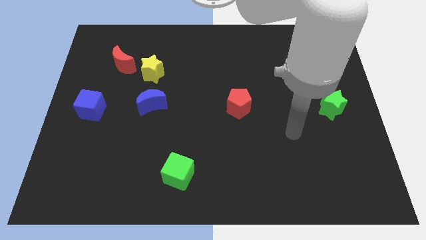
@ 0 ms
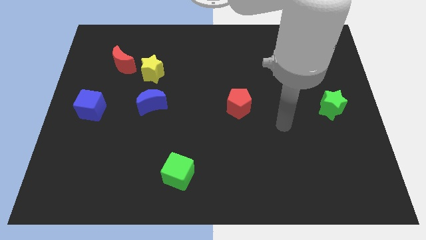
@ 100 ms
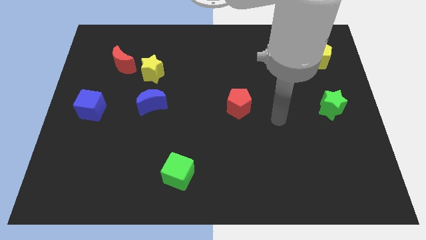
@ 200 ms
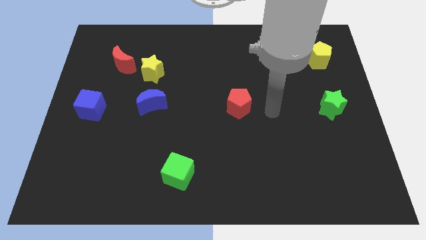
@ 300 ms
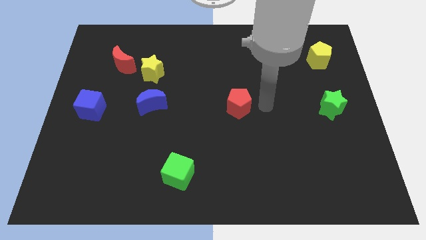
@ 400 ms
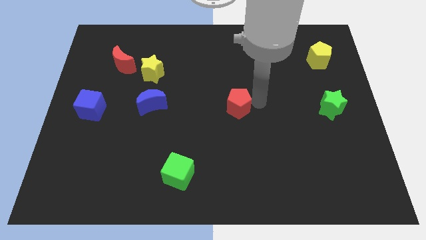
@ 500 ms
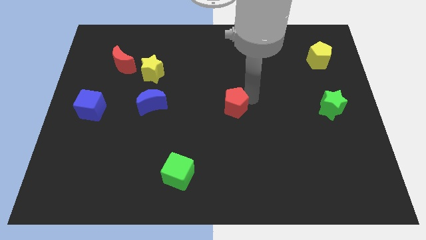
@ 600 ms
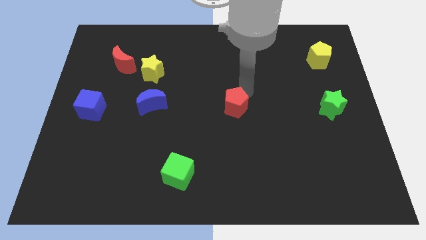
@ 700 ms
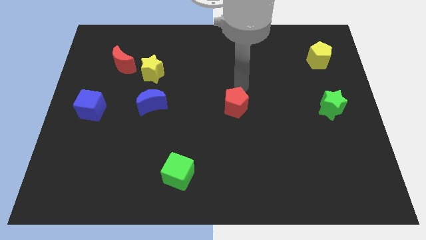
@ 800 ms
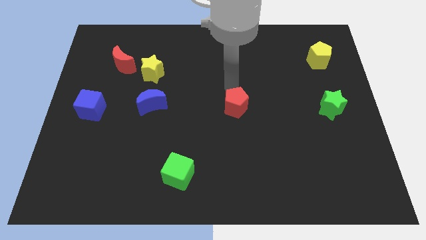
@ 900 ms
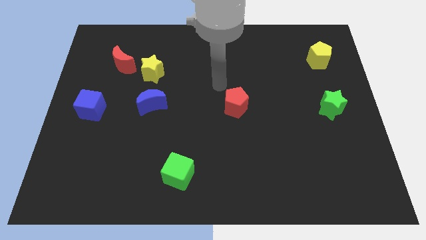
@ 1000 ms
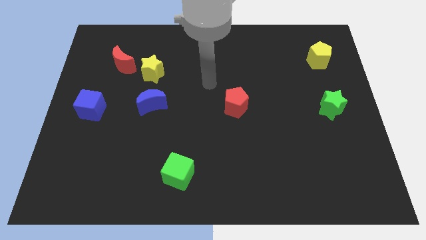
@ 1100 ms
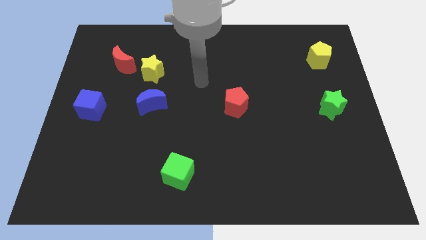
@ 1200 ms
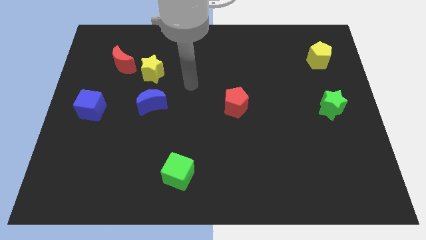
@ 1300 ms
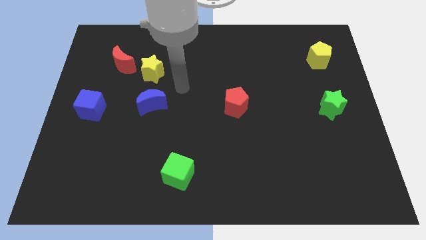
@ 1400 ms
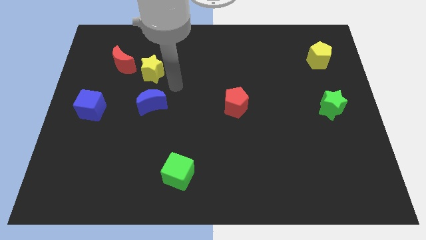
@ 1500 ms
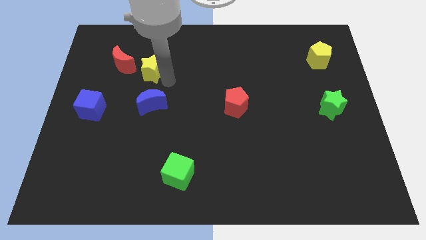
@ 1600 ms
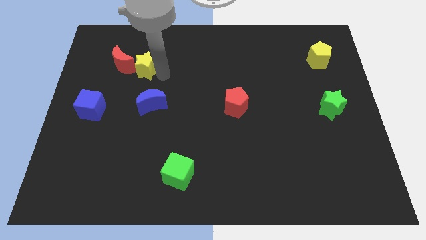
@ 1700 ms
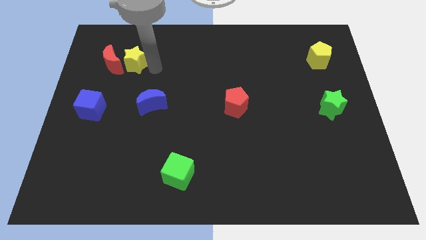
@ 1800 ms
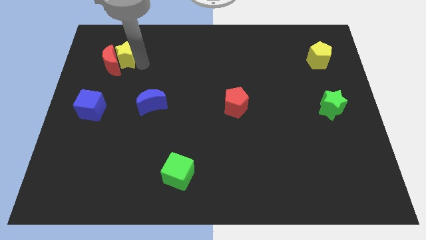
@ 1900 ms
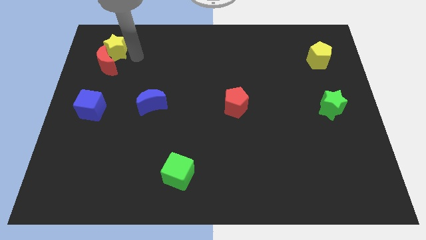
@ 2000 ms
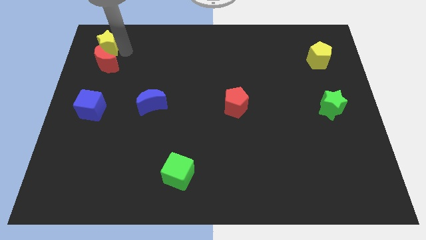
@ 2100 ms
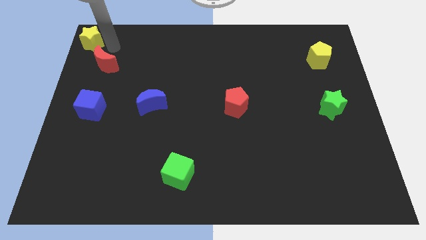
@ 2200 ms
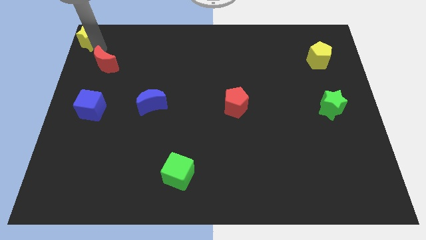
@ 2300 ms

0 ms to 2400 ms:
pull the red moon apart from the yellow star

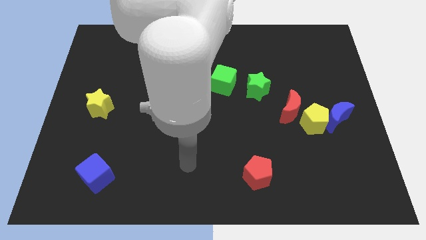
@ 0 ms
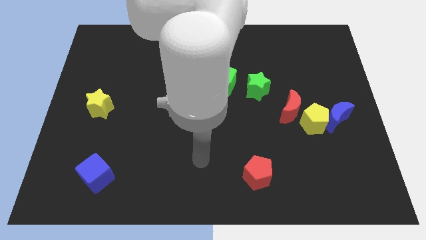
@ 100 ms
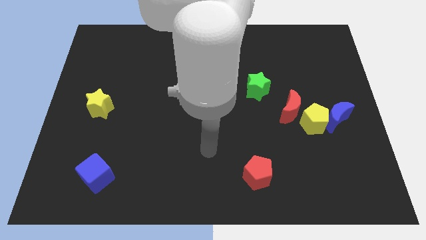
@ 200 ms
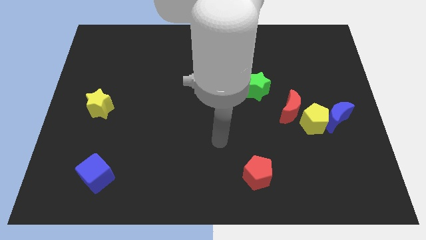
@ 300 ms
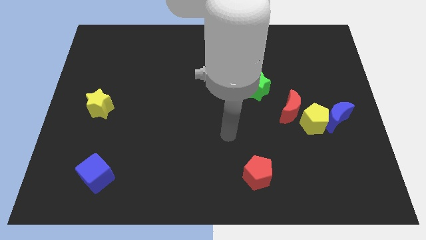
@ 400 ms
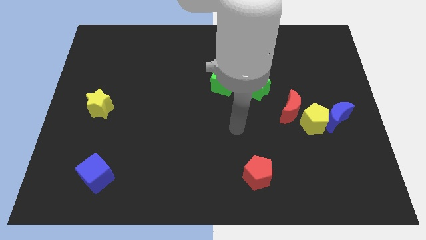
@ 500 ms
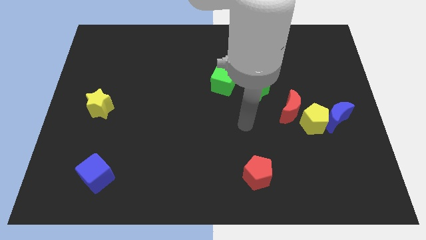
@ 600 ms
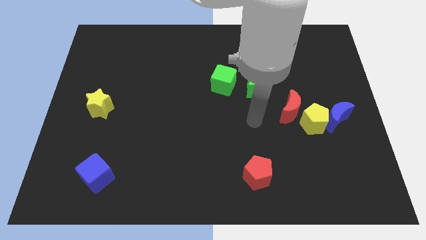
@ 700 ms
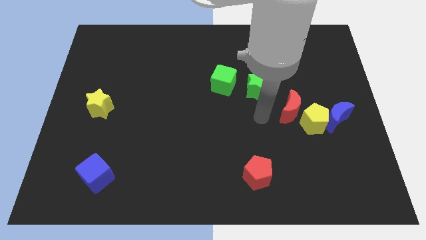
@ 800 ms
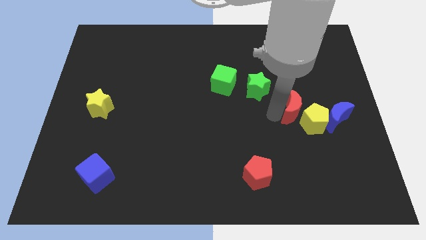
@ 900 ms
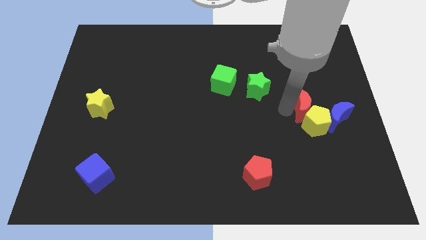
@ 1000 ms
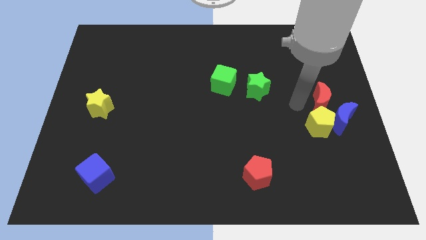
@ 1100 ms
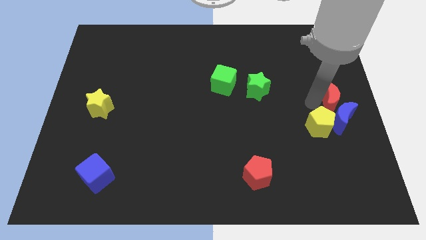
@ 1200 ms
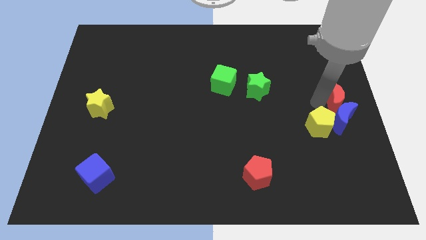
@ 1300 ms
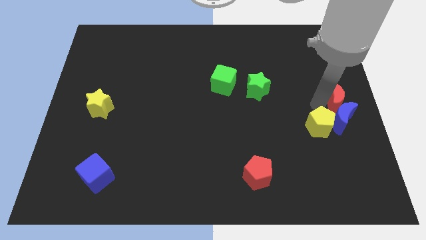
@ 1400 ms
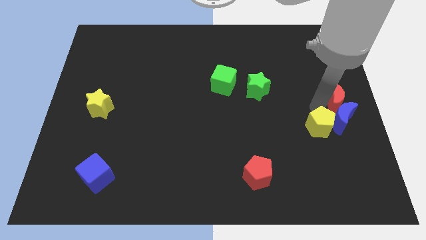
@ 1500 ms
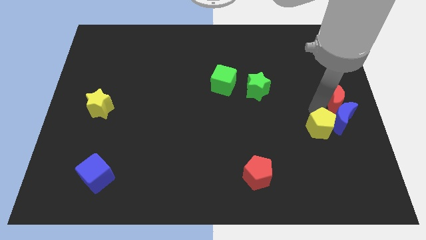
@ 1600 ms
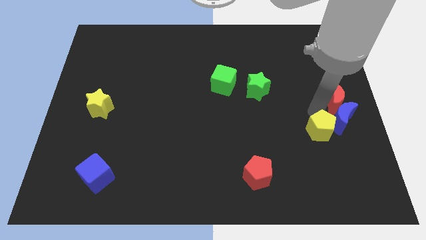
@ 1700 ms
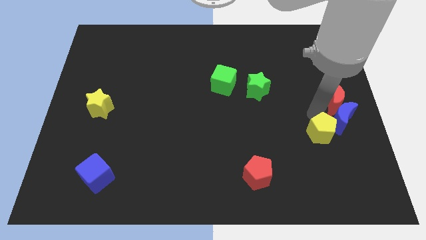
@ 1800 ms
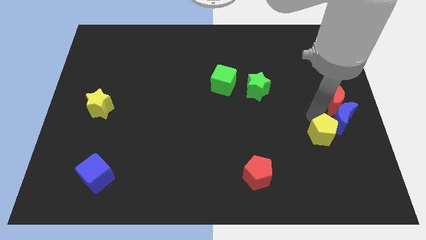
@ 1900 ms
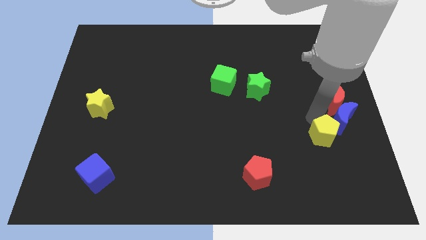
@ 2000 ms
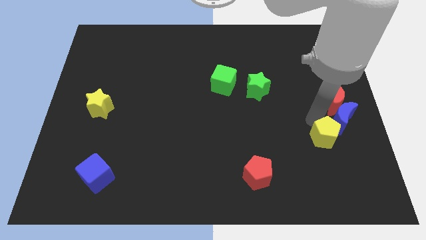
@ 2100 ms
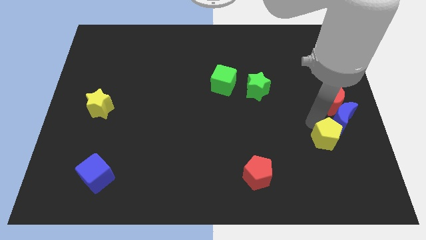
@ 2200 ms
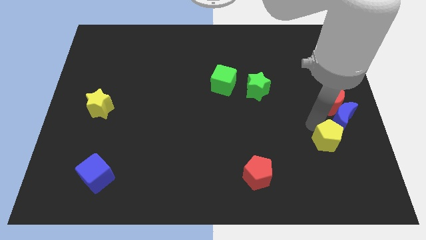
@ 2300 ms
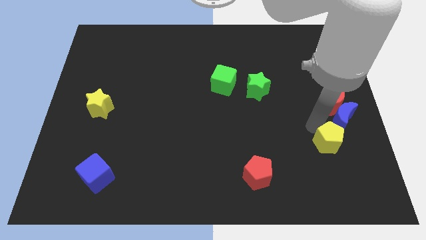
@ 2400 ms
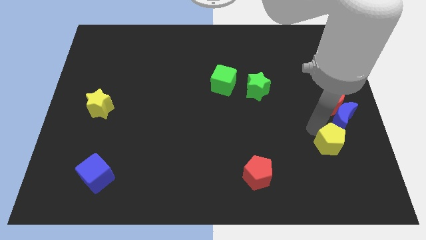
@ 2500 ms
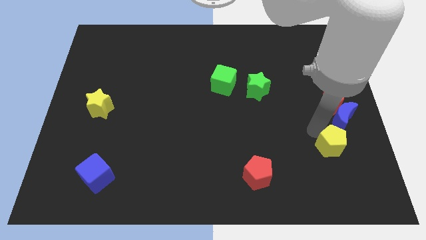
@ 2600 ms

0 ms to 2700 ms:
pull the yellow pentagon apart from the blue moon and red moon

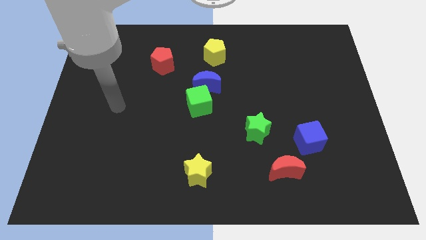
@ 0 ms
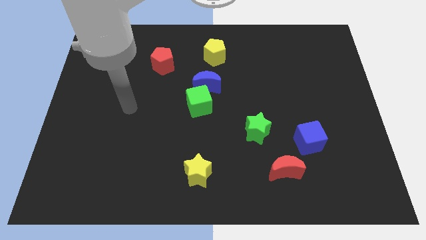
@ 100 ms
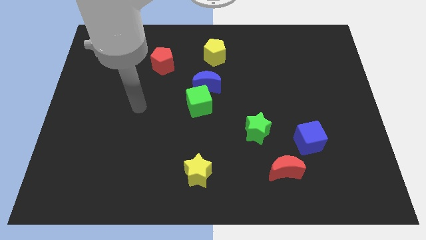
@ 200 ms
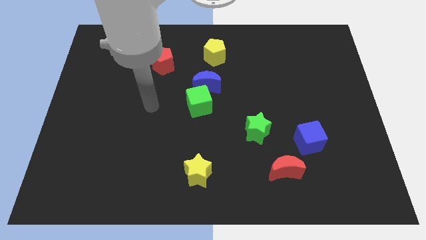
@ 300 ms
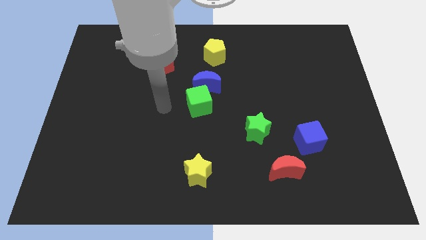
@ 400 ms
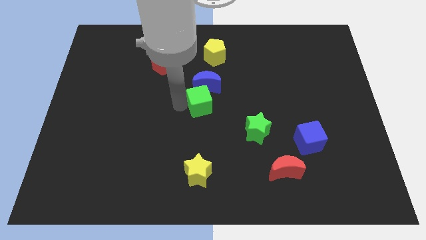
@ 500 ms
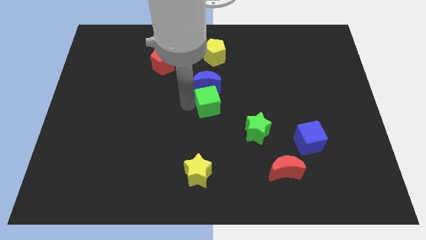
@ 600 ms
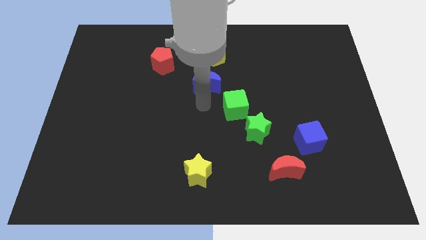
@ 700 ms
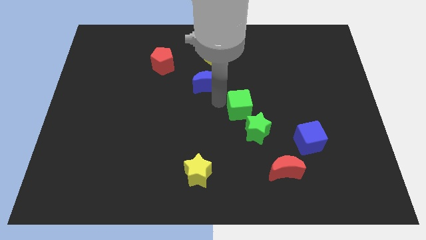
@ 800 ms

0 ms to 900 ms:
move the blue moon away from the green cube

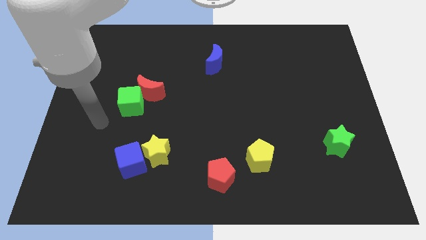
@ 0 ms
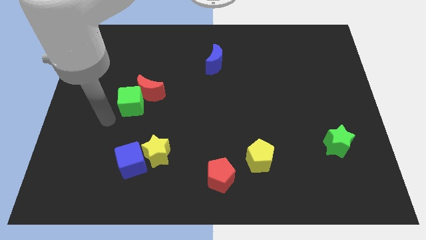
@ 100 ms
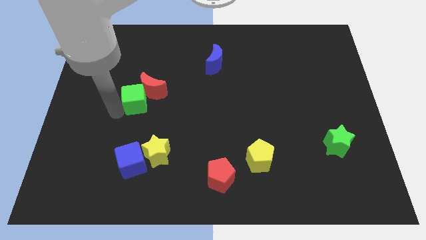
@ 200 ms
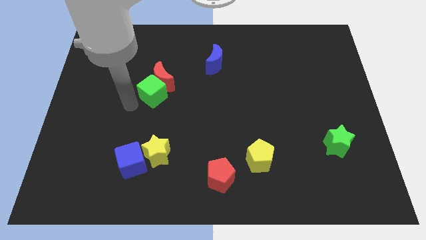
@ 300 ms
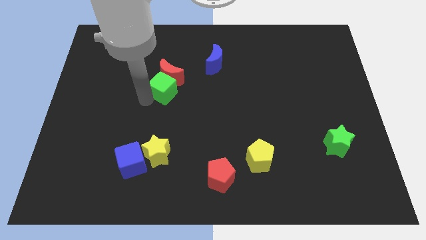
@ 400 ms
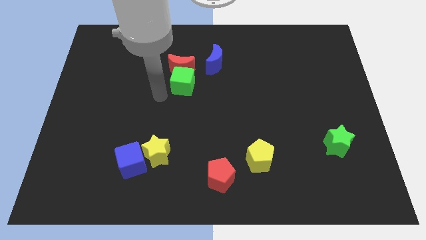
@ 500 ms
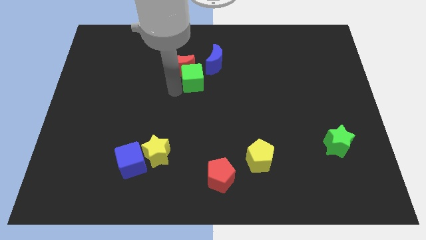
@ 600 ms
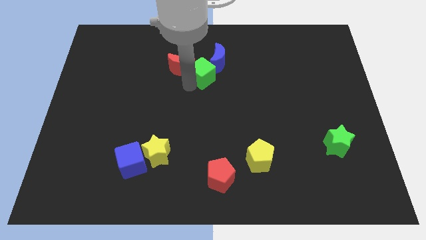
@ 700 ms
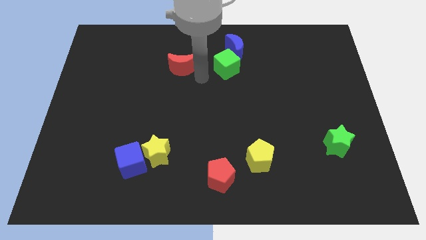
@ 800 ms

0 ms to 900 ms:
pull the red moon apart from the green cube

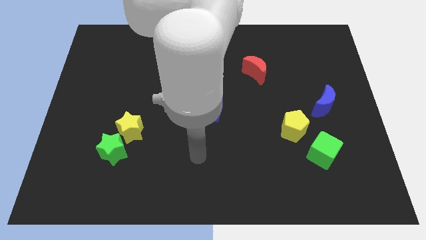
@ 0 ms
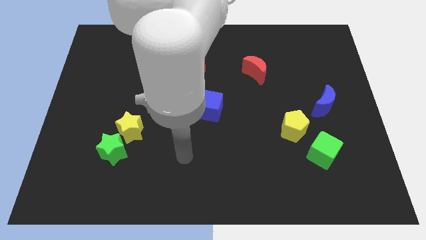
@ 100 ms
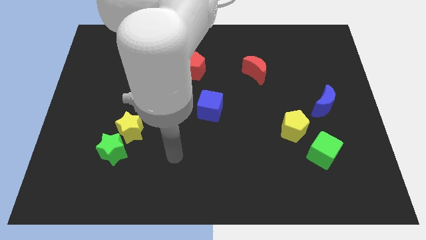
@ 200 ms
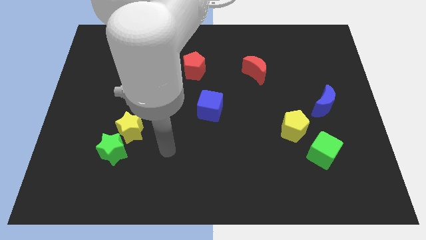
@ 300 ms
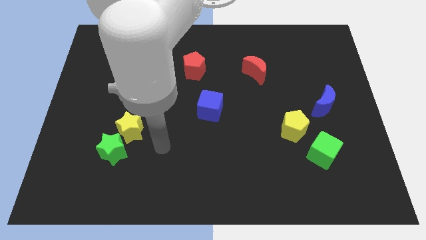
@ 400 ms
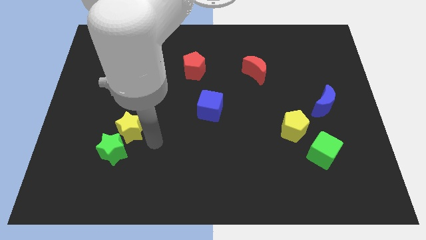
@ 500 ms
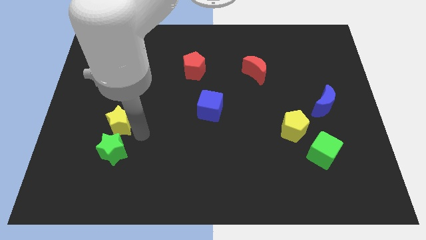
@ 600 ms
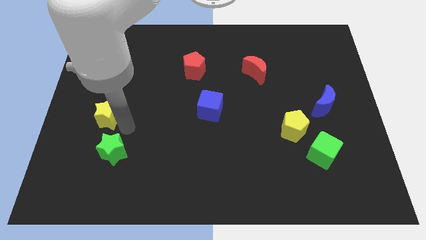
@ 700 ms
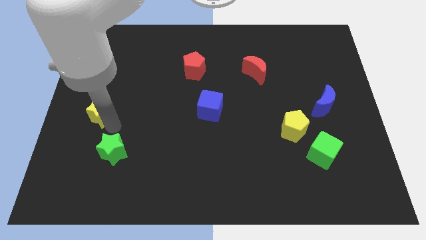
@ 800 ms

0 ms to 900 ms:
move the green star away from the yellow star

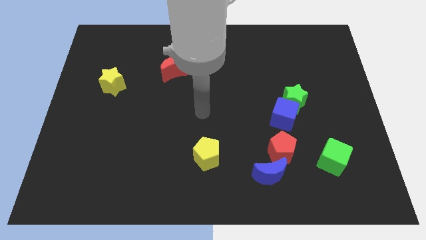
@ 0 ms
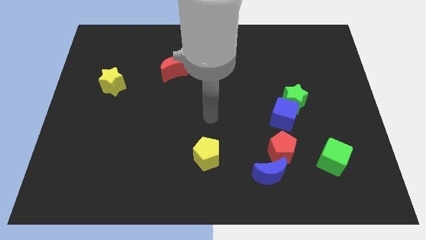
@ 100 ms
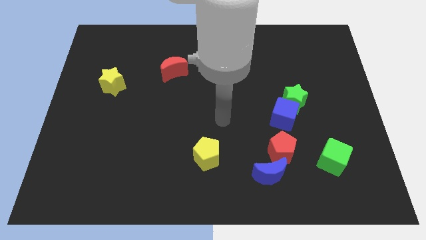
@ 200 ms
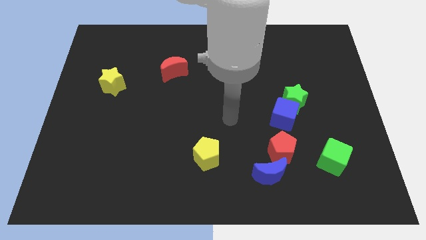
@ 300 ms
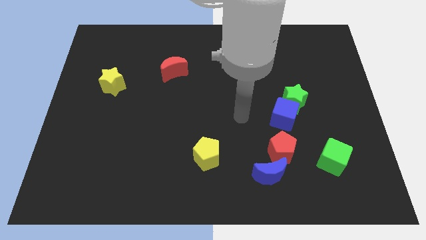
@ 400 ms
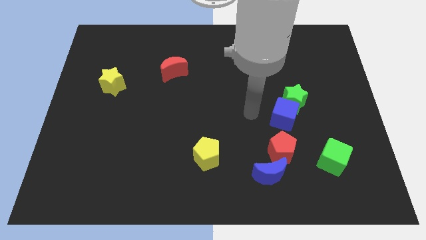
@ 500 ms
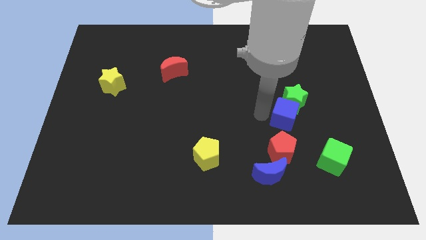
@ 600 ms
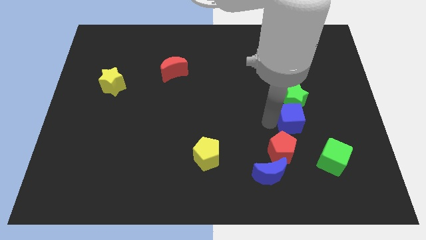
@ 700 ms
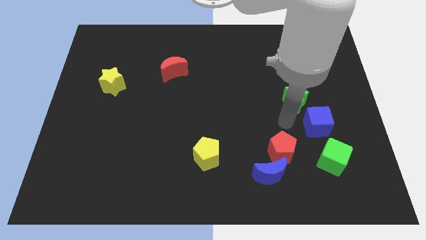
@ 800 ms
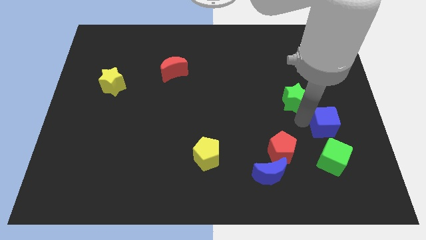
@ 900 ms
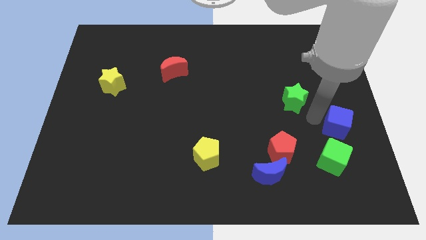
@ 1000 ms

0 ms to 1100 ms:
pull the green star apart from the blue cube

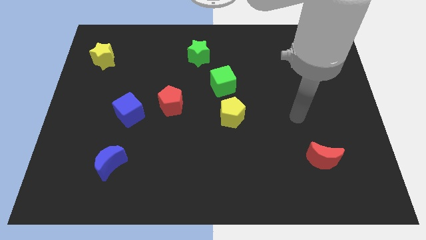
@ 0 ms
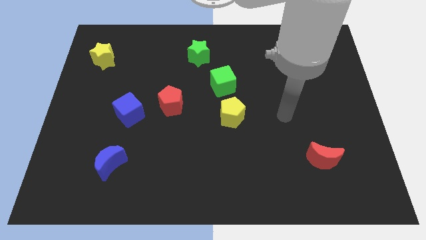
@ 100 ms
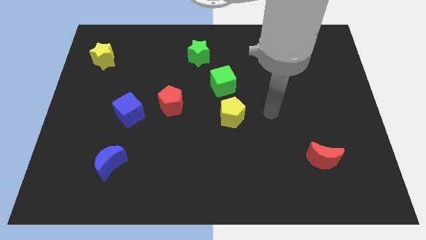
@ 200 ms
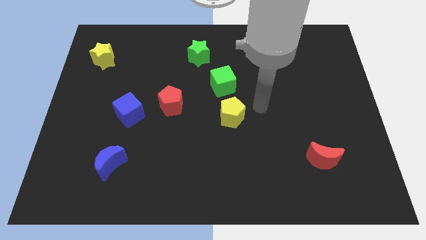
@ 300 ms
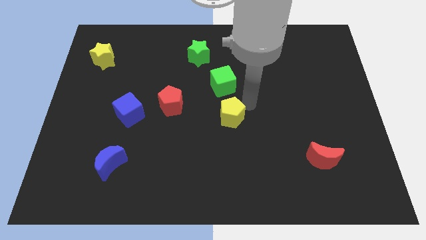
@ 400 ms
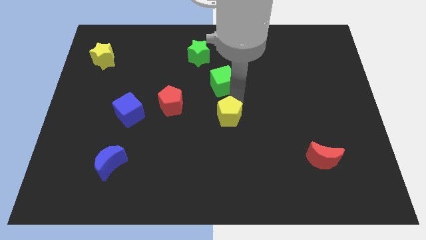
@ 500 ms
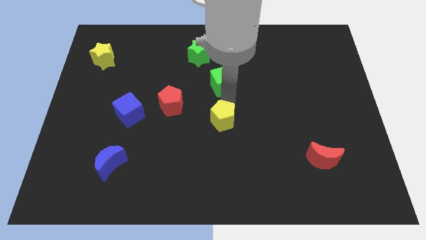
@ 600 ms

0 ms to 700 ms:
pull the green cube apart from the yellow pentagon
